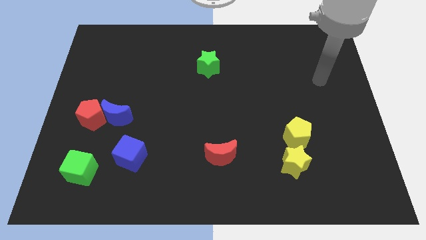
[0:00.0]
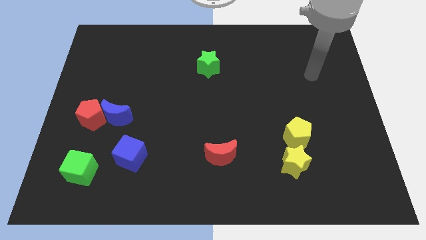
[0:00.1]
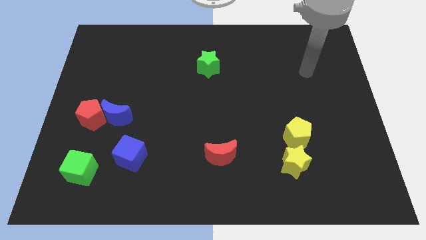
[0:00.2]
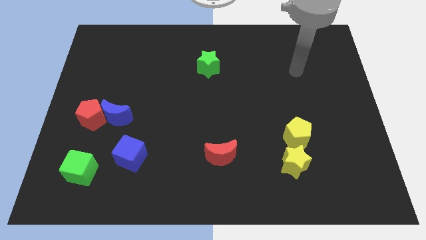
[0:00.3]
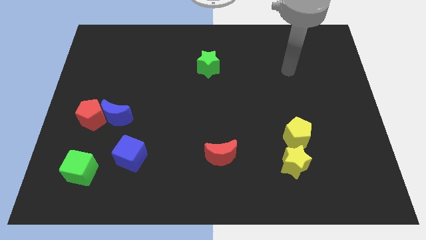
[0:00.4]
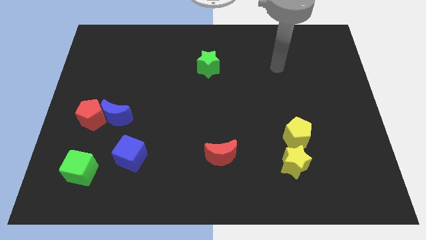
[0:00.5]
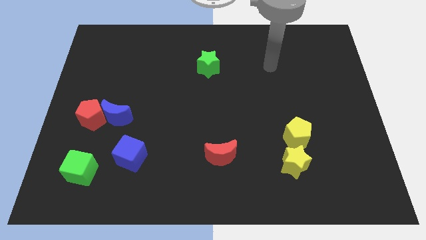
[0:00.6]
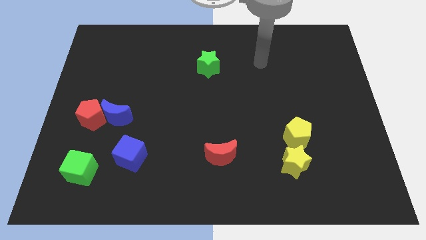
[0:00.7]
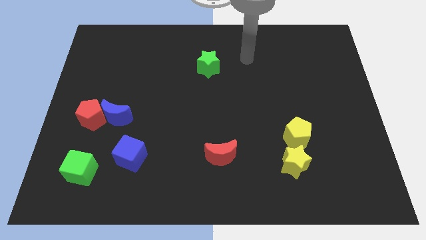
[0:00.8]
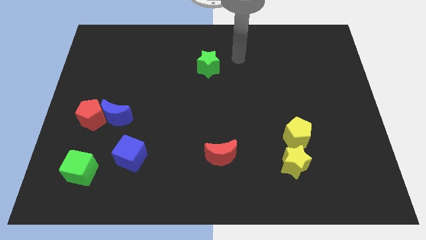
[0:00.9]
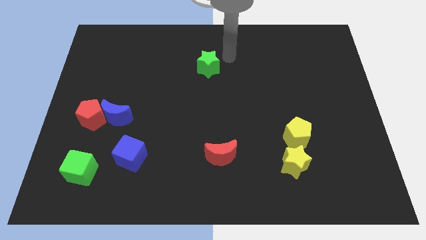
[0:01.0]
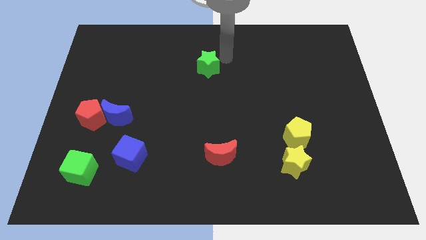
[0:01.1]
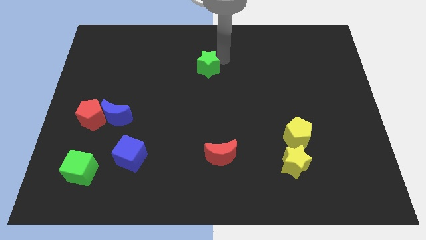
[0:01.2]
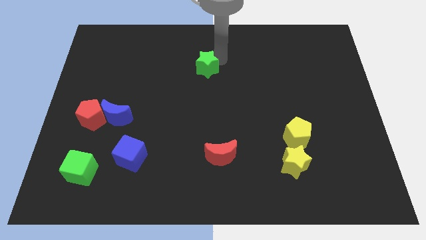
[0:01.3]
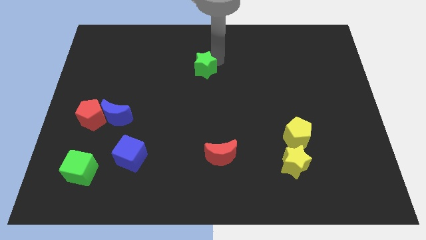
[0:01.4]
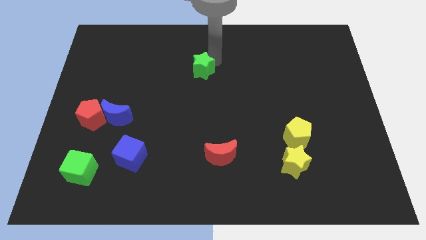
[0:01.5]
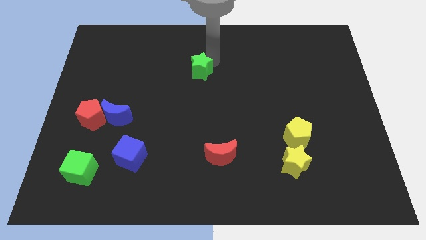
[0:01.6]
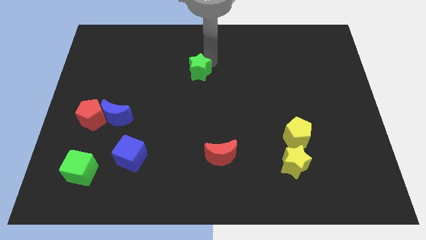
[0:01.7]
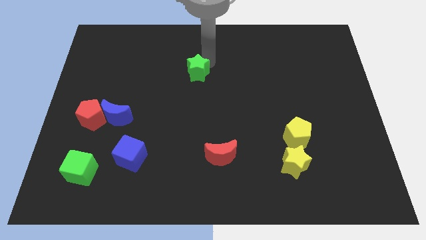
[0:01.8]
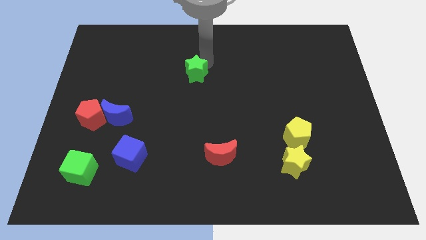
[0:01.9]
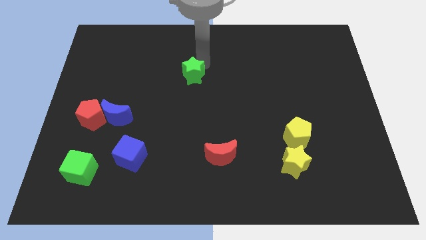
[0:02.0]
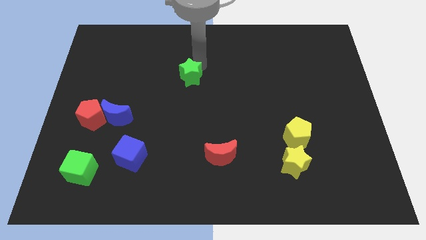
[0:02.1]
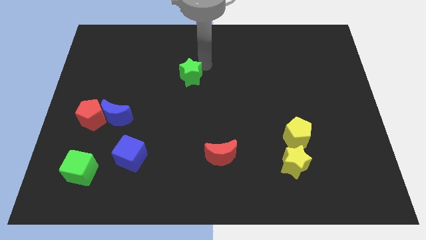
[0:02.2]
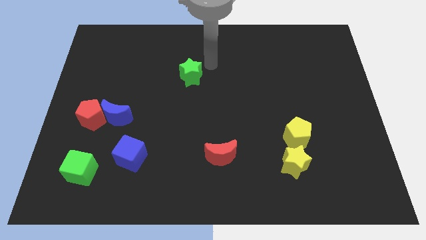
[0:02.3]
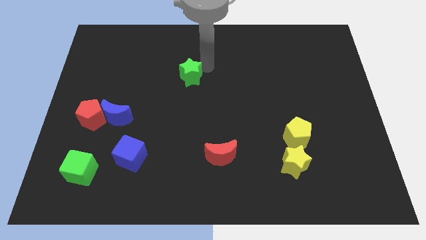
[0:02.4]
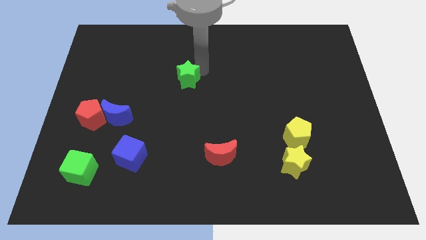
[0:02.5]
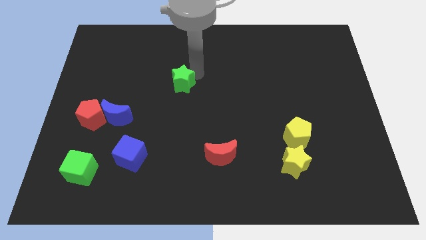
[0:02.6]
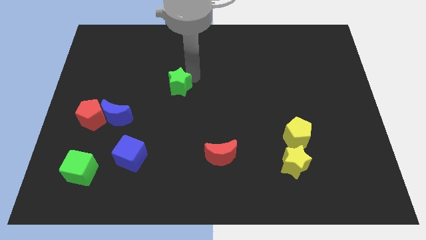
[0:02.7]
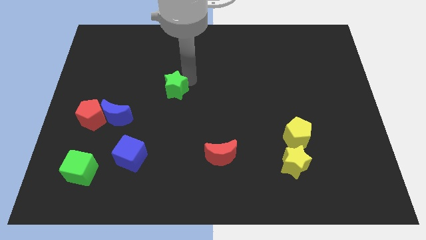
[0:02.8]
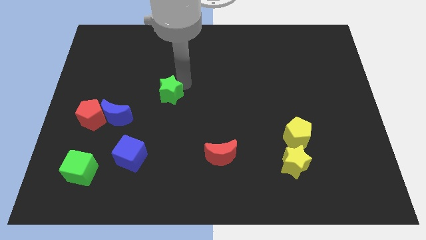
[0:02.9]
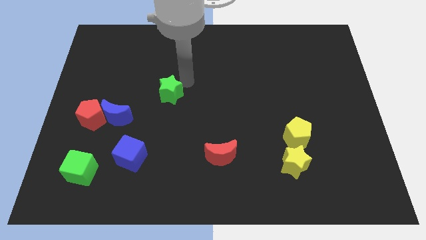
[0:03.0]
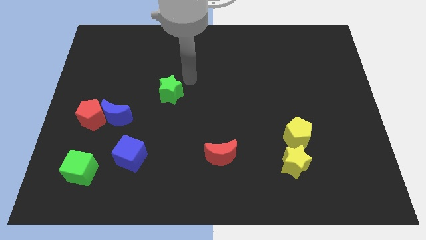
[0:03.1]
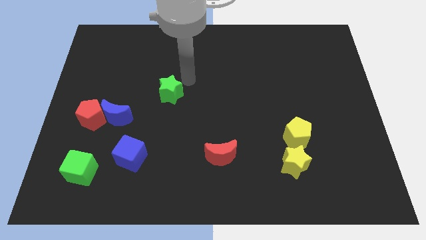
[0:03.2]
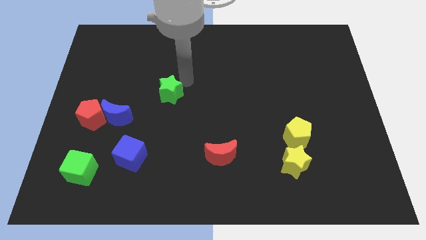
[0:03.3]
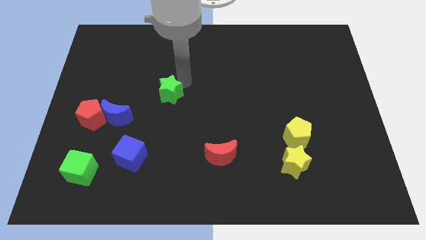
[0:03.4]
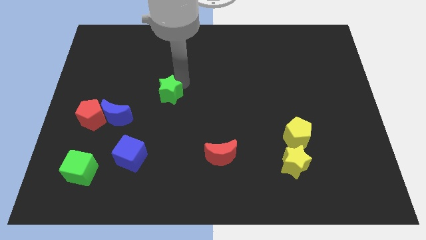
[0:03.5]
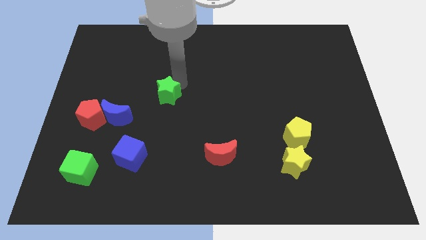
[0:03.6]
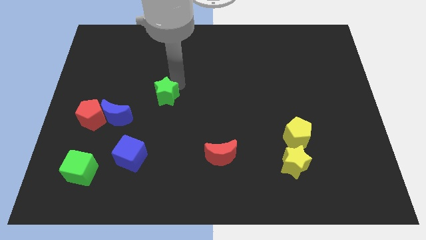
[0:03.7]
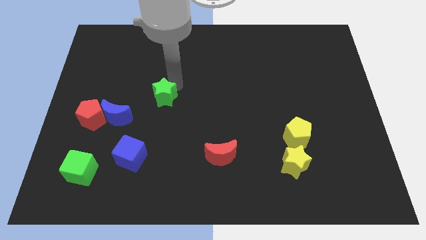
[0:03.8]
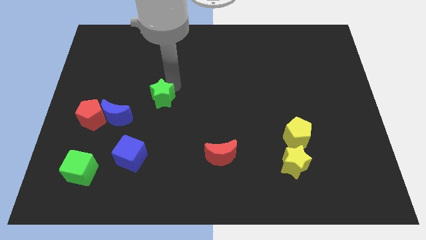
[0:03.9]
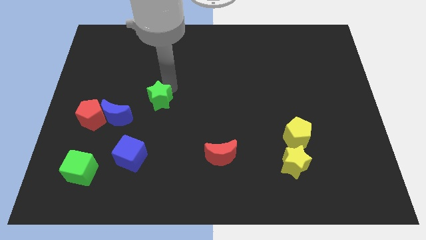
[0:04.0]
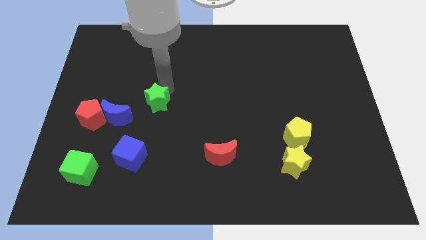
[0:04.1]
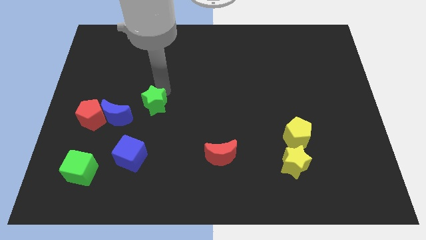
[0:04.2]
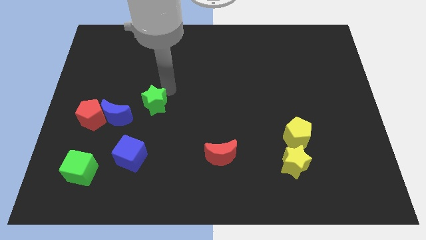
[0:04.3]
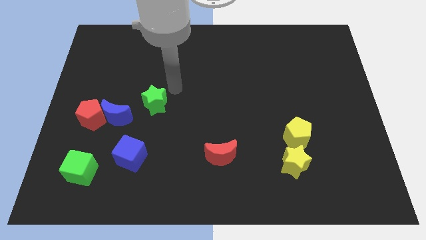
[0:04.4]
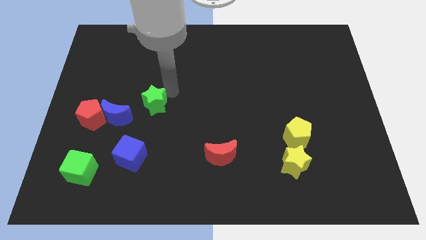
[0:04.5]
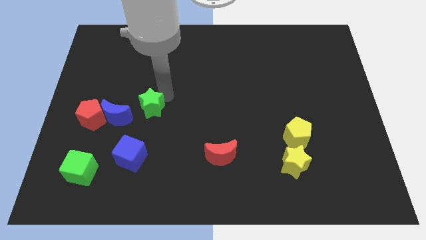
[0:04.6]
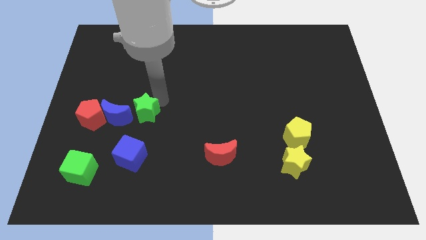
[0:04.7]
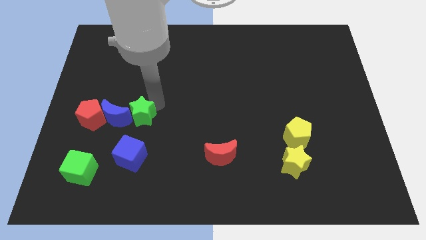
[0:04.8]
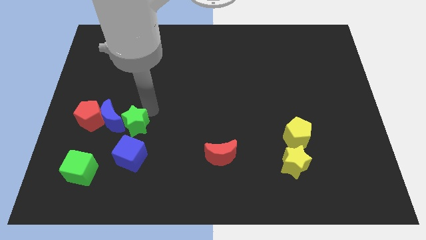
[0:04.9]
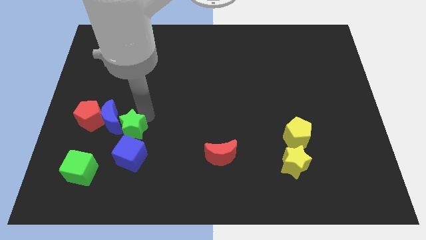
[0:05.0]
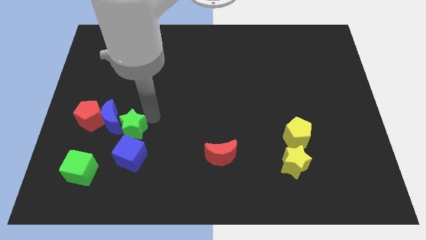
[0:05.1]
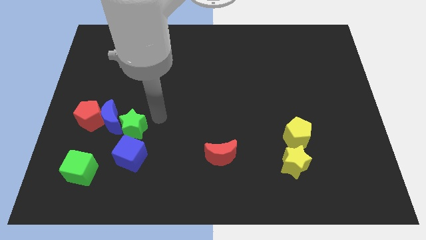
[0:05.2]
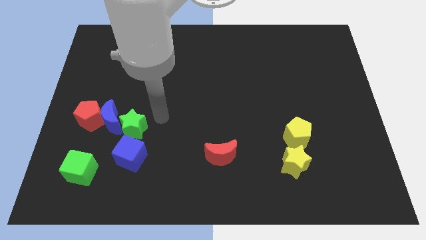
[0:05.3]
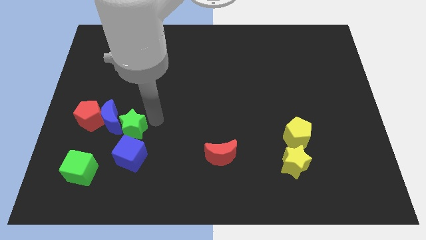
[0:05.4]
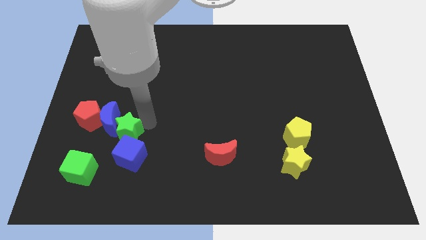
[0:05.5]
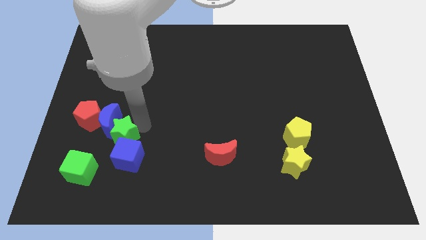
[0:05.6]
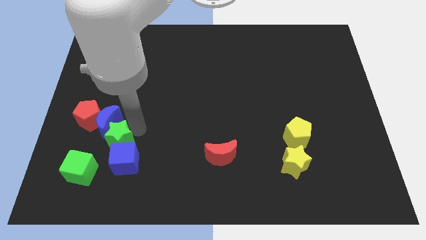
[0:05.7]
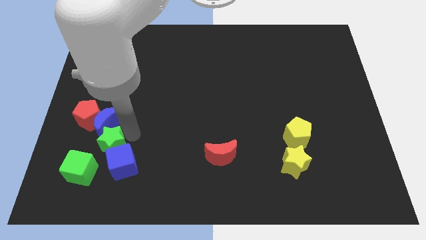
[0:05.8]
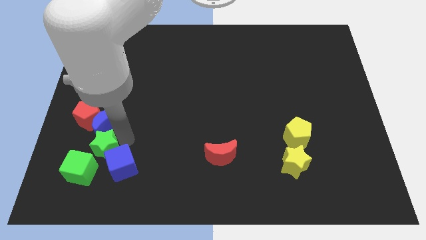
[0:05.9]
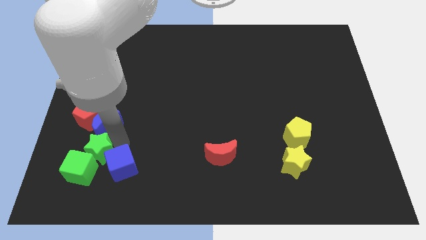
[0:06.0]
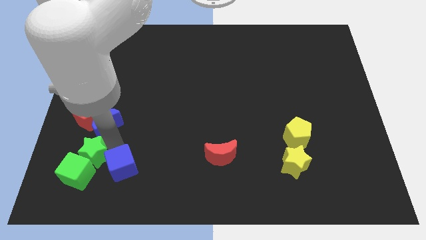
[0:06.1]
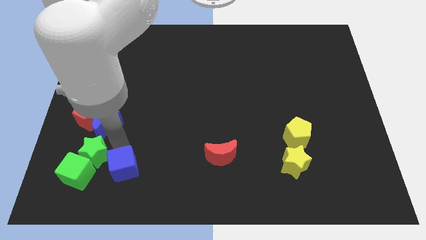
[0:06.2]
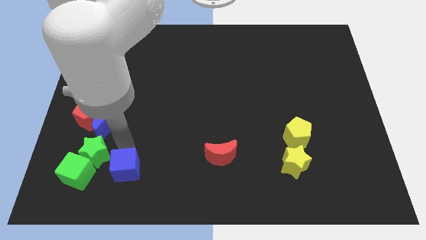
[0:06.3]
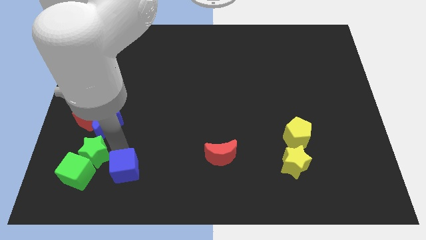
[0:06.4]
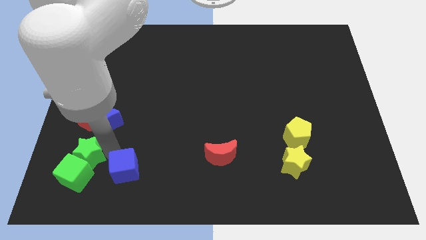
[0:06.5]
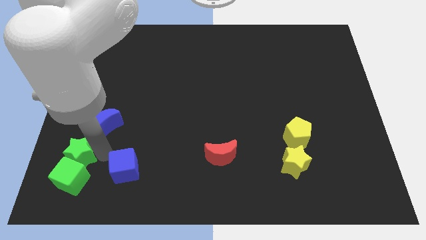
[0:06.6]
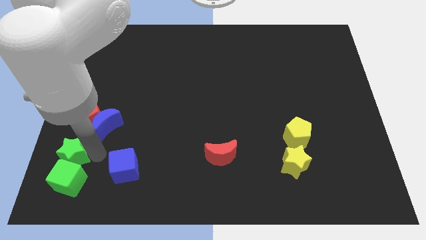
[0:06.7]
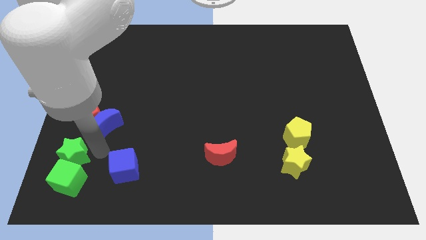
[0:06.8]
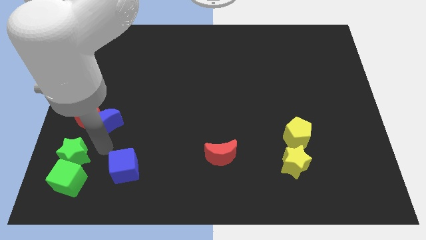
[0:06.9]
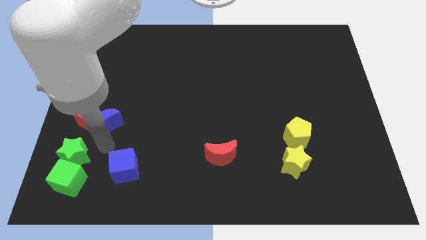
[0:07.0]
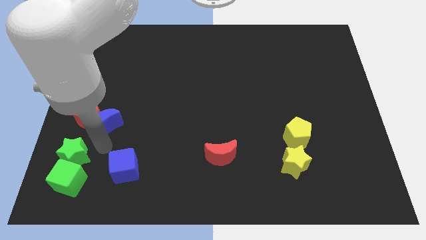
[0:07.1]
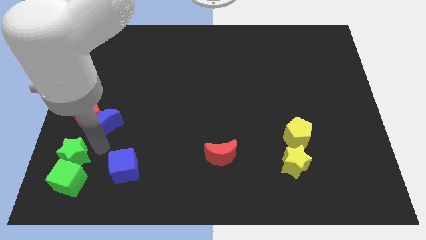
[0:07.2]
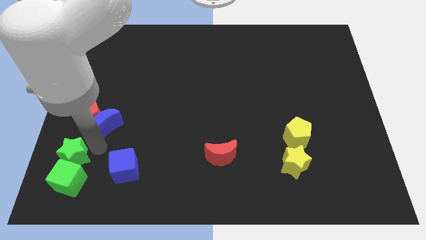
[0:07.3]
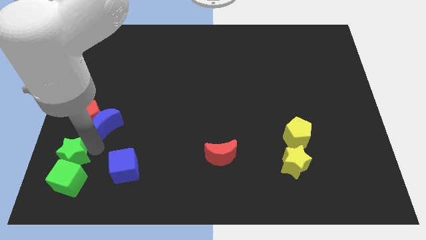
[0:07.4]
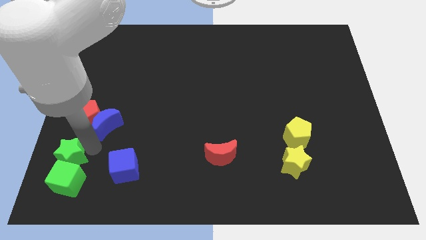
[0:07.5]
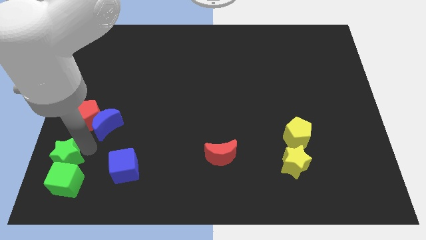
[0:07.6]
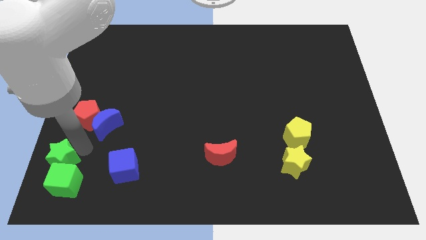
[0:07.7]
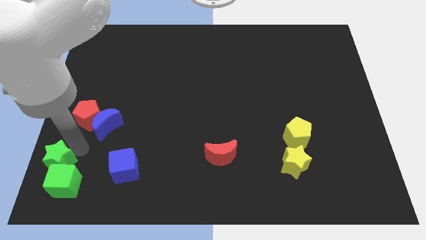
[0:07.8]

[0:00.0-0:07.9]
move the green star to the bottom left
